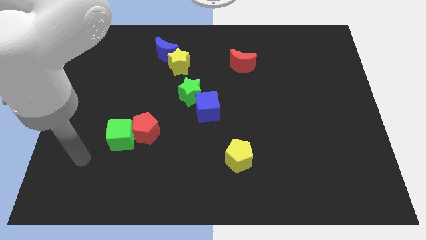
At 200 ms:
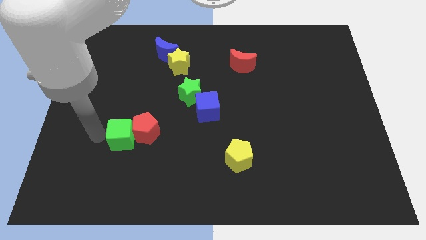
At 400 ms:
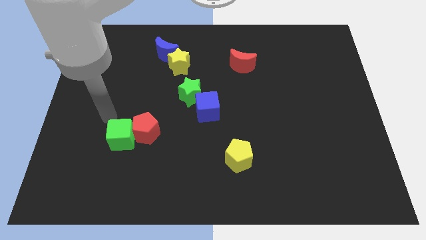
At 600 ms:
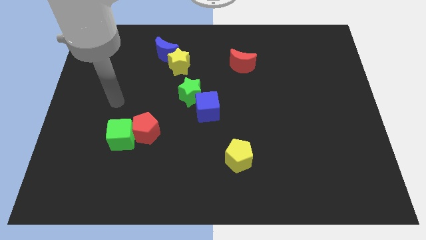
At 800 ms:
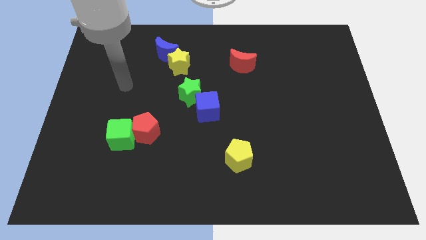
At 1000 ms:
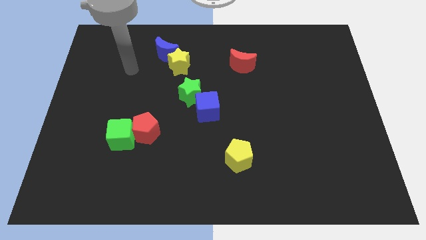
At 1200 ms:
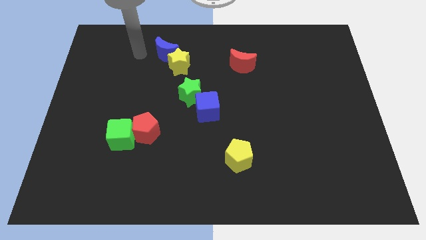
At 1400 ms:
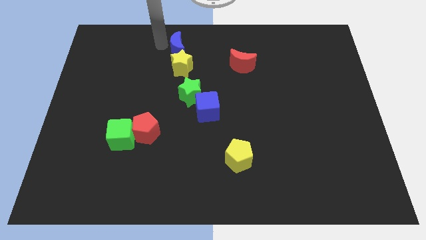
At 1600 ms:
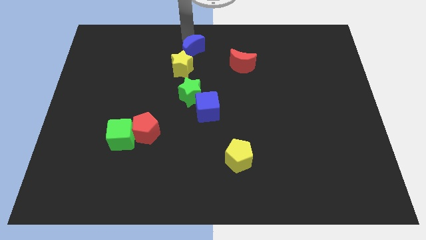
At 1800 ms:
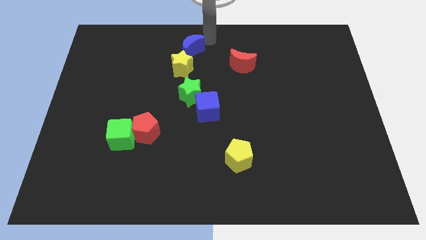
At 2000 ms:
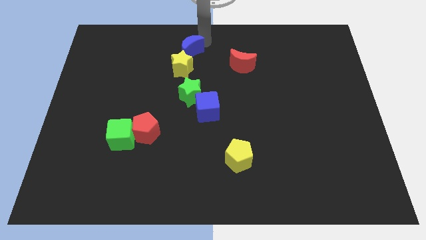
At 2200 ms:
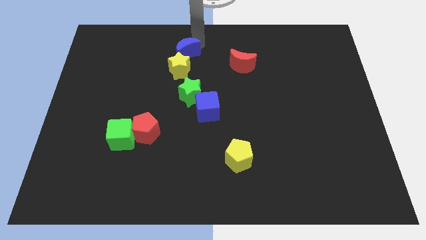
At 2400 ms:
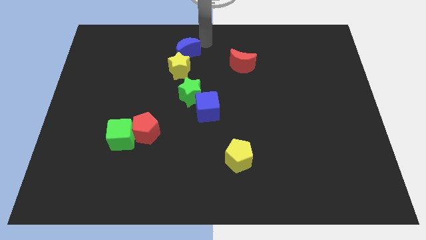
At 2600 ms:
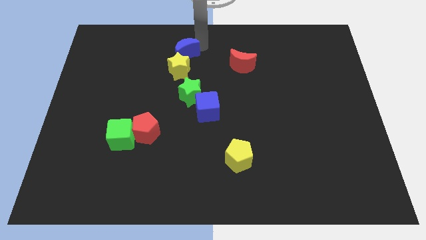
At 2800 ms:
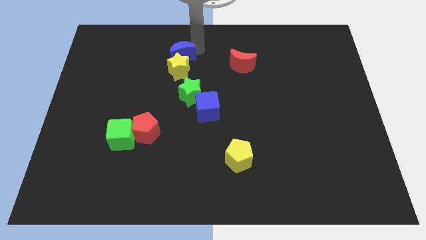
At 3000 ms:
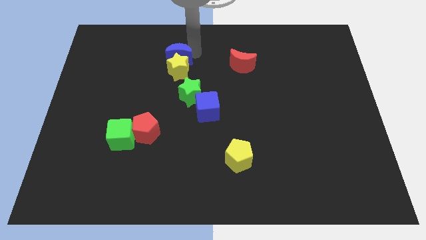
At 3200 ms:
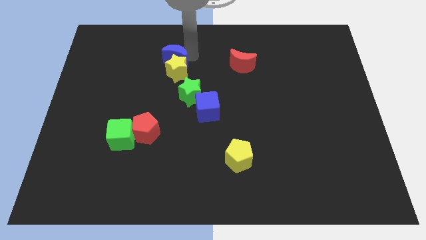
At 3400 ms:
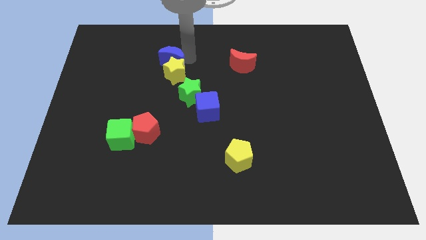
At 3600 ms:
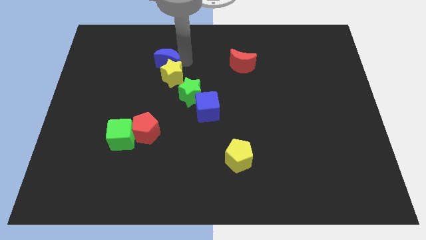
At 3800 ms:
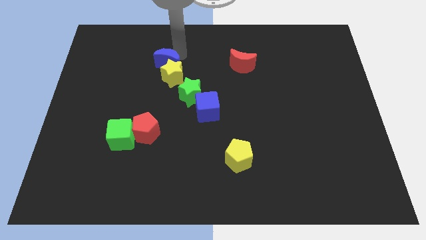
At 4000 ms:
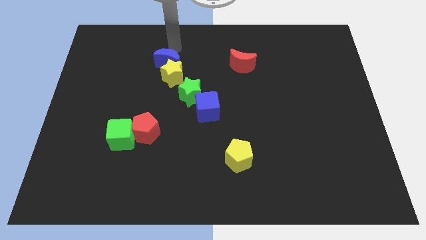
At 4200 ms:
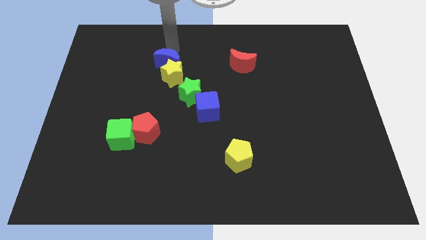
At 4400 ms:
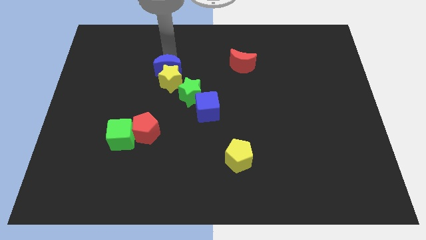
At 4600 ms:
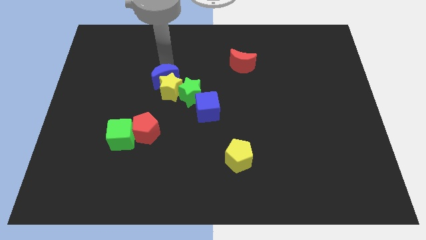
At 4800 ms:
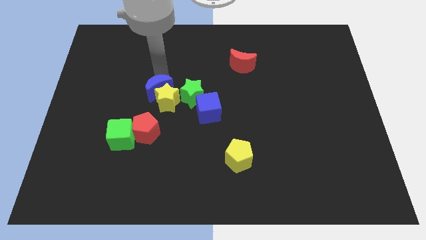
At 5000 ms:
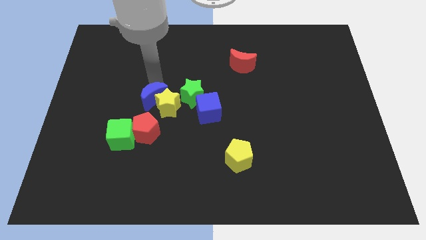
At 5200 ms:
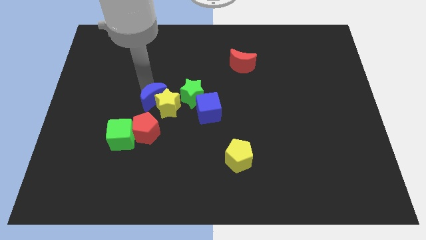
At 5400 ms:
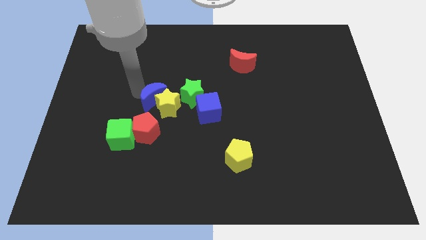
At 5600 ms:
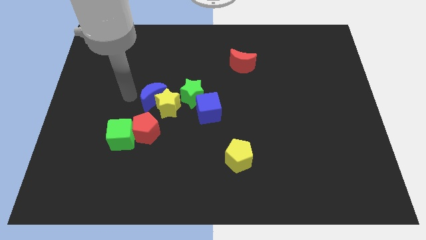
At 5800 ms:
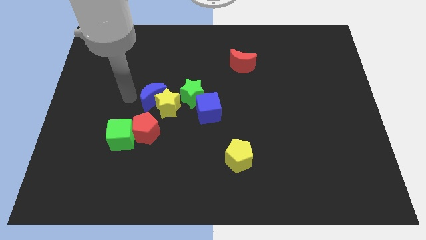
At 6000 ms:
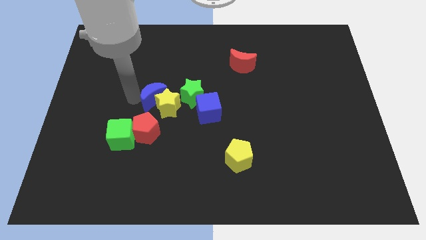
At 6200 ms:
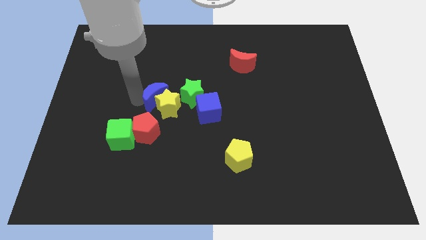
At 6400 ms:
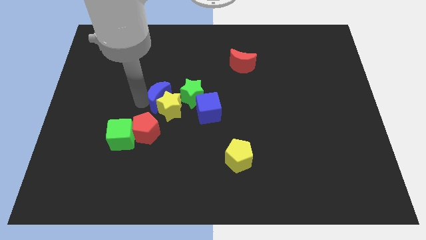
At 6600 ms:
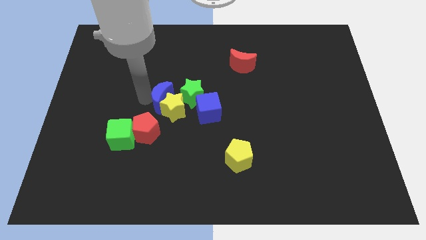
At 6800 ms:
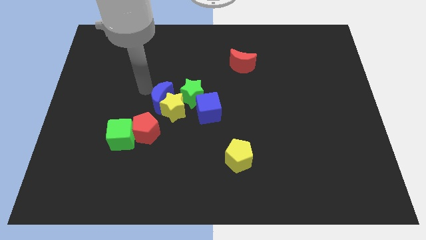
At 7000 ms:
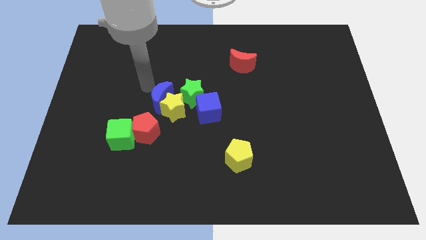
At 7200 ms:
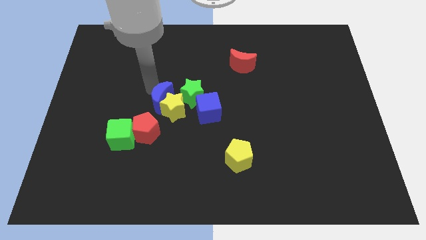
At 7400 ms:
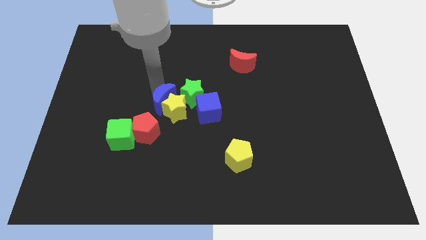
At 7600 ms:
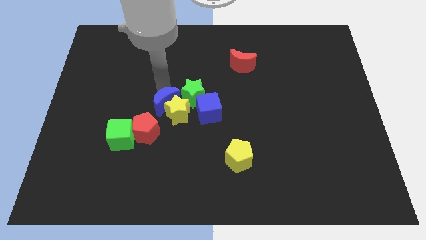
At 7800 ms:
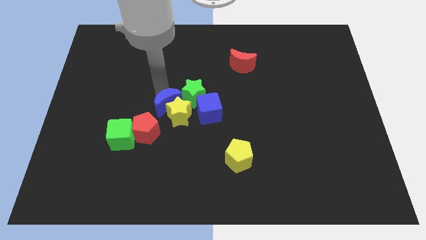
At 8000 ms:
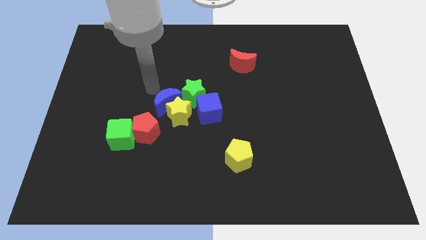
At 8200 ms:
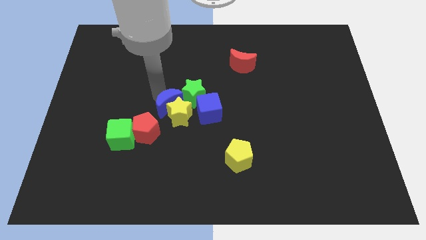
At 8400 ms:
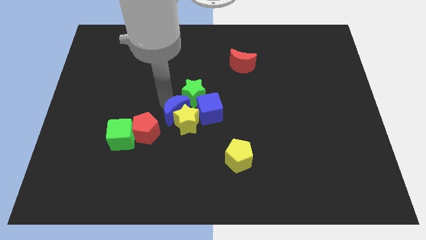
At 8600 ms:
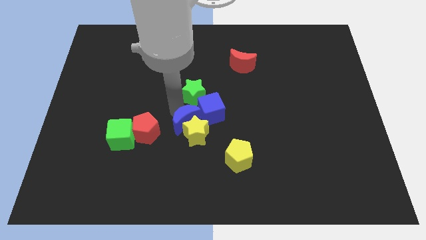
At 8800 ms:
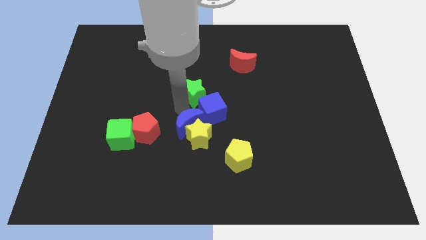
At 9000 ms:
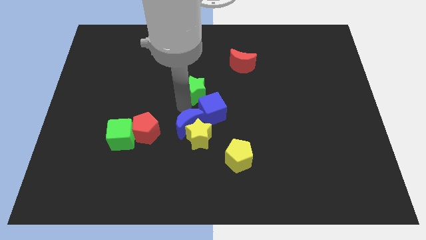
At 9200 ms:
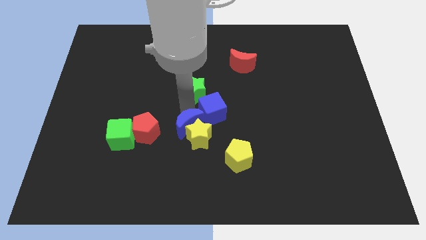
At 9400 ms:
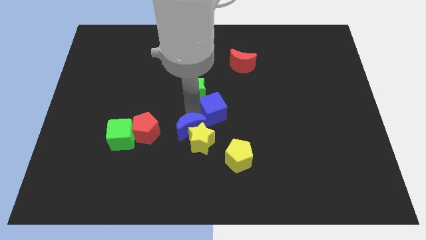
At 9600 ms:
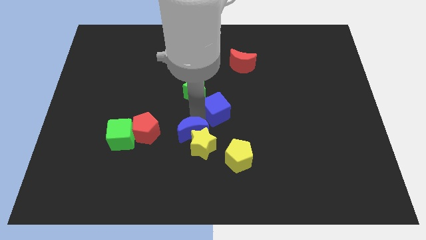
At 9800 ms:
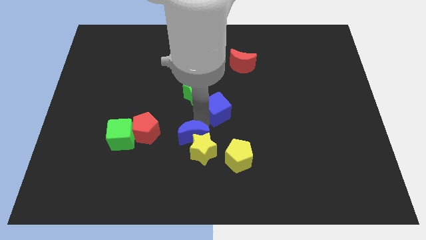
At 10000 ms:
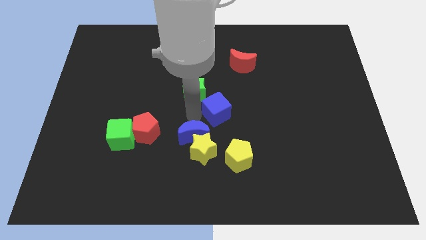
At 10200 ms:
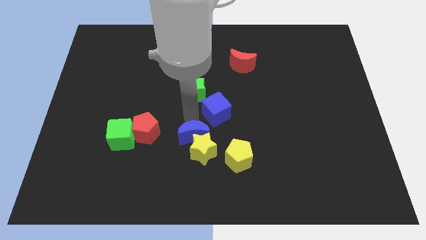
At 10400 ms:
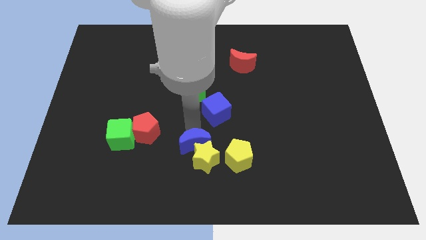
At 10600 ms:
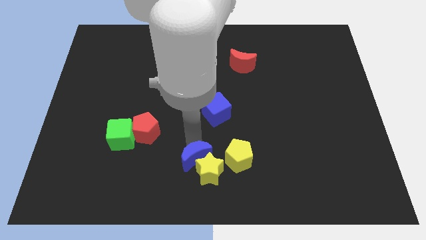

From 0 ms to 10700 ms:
push the blue moon to the bottom side

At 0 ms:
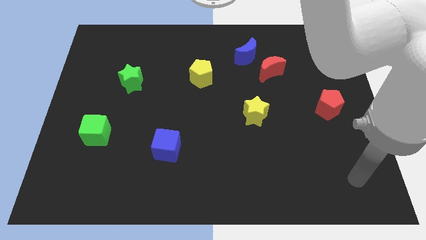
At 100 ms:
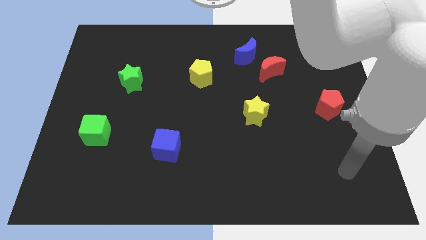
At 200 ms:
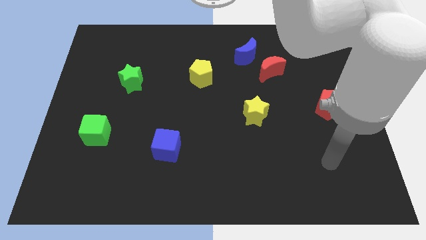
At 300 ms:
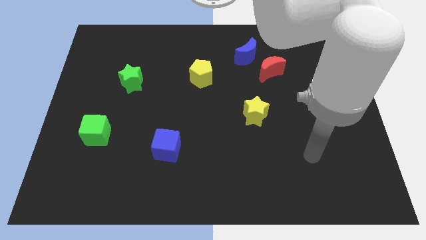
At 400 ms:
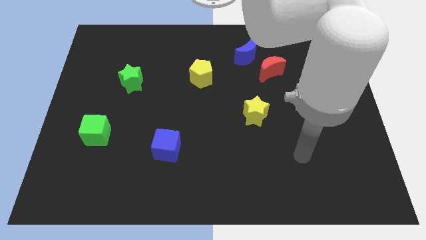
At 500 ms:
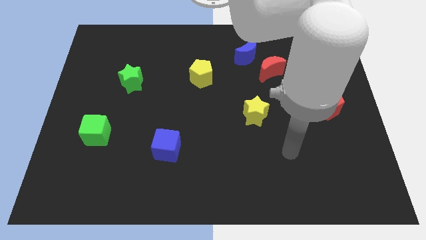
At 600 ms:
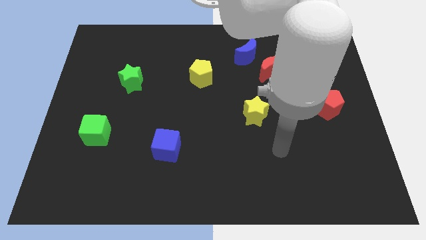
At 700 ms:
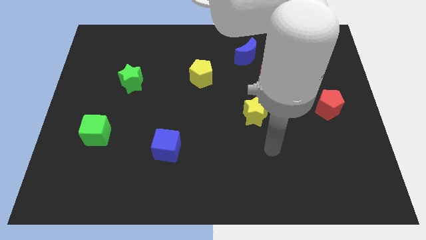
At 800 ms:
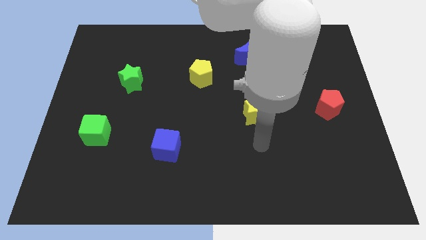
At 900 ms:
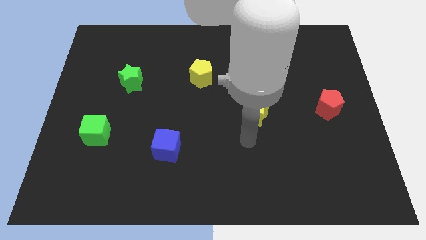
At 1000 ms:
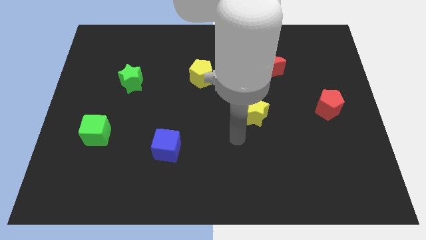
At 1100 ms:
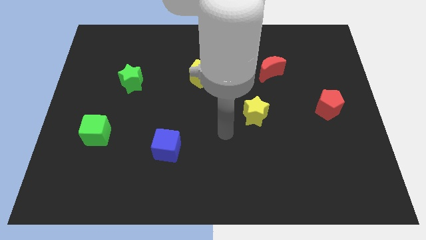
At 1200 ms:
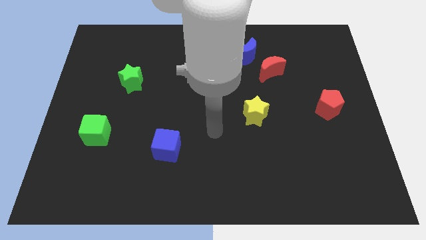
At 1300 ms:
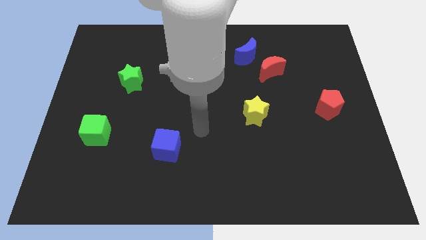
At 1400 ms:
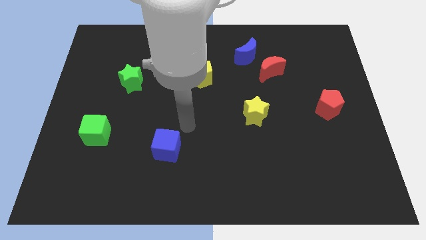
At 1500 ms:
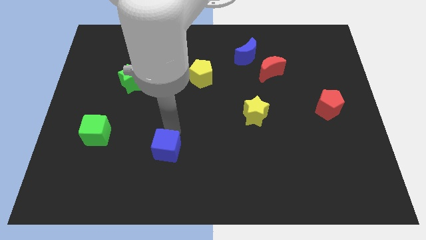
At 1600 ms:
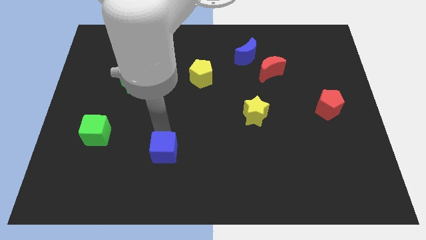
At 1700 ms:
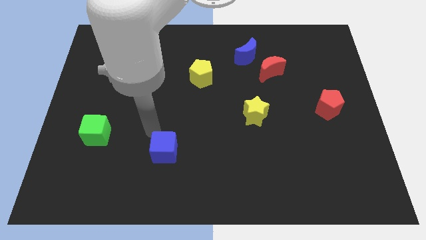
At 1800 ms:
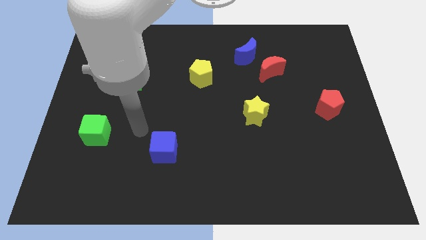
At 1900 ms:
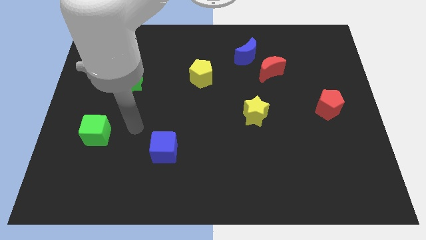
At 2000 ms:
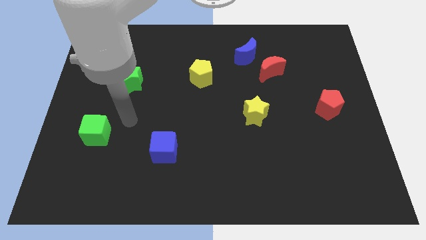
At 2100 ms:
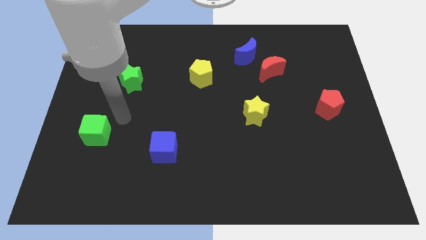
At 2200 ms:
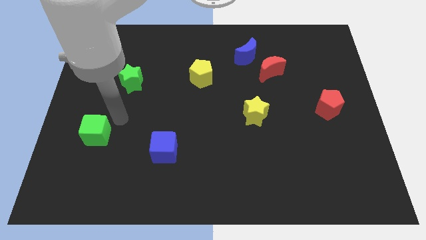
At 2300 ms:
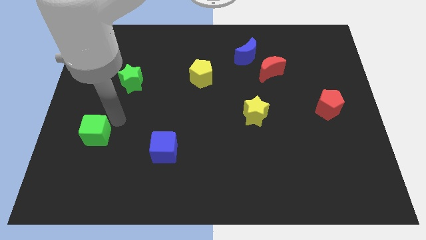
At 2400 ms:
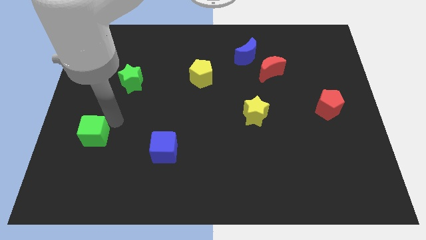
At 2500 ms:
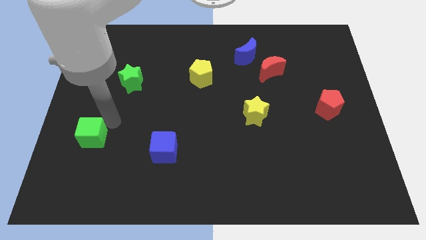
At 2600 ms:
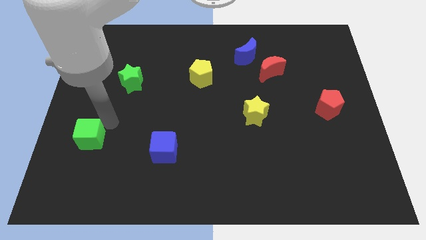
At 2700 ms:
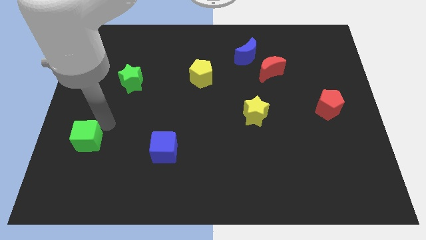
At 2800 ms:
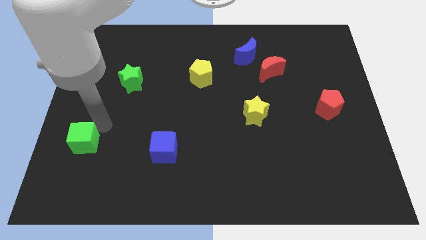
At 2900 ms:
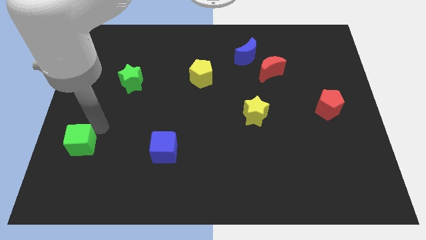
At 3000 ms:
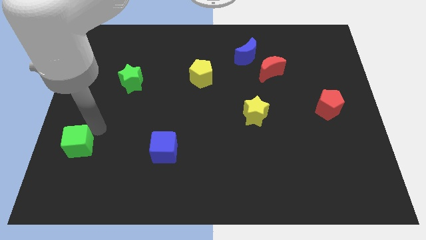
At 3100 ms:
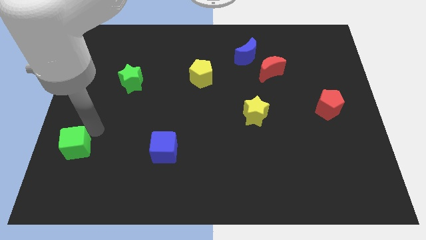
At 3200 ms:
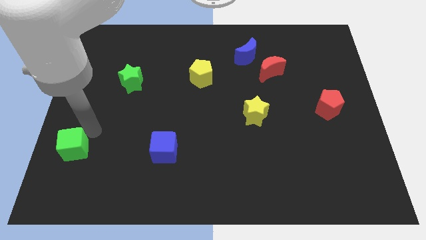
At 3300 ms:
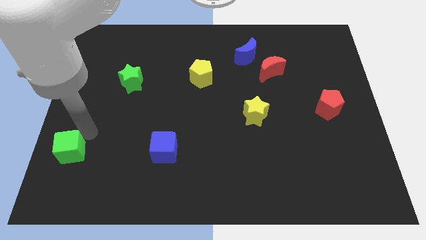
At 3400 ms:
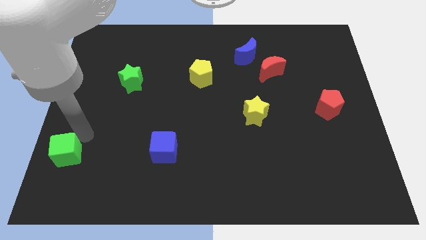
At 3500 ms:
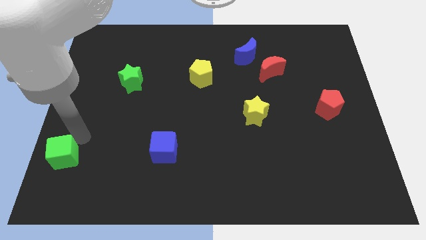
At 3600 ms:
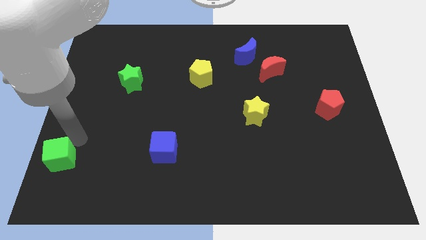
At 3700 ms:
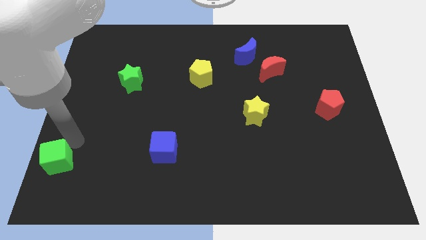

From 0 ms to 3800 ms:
push the green cube to the bottom left
